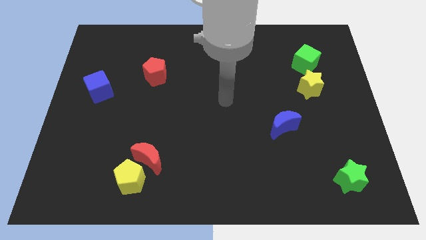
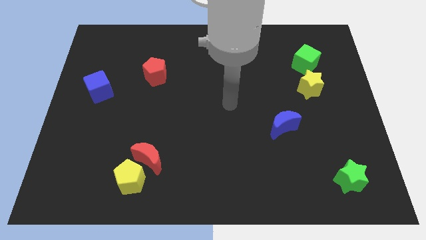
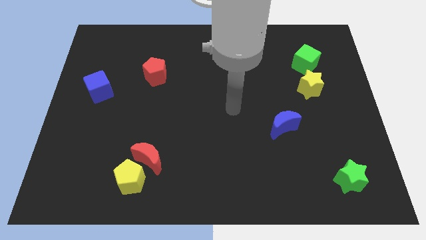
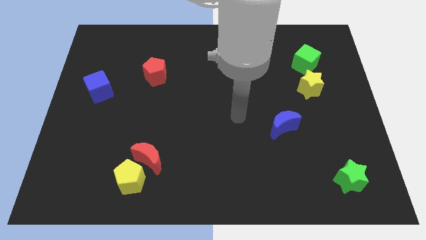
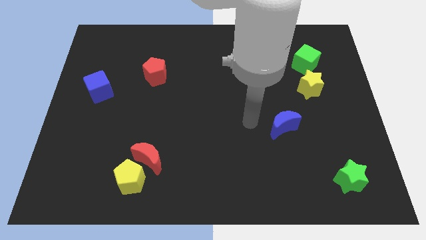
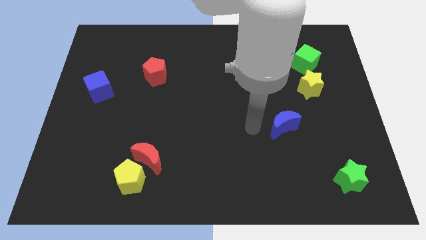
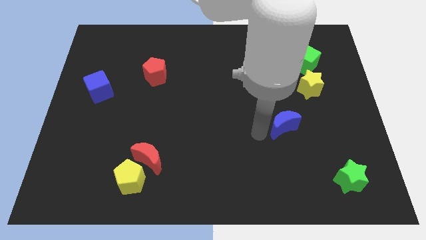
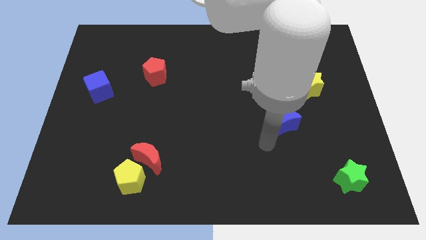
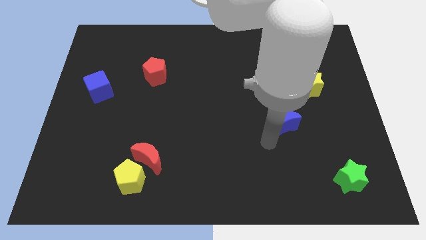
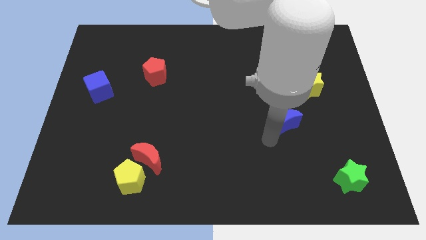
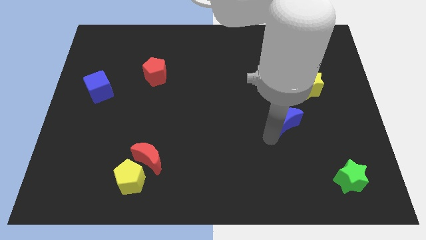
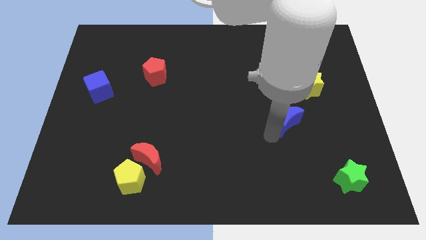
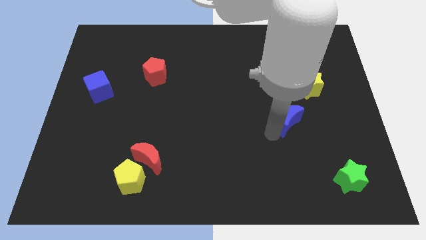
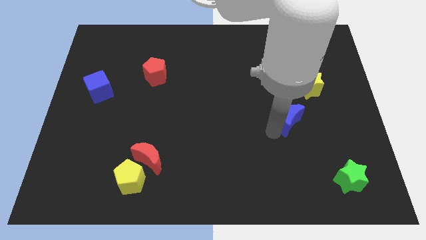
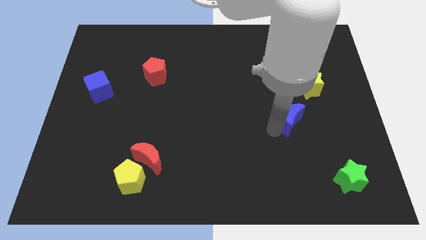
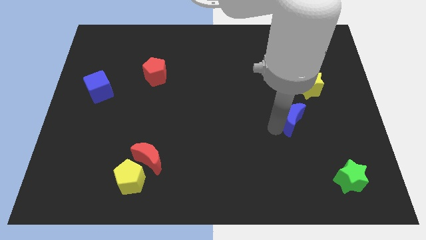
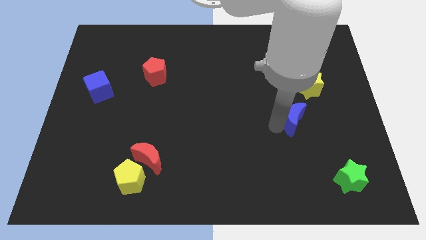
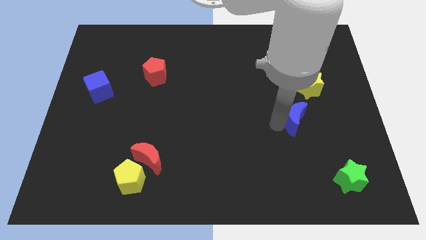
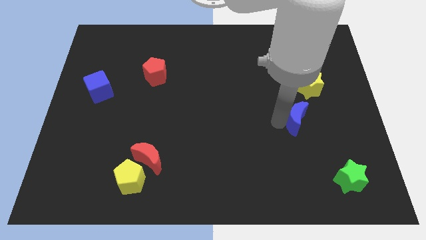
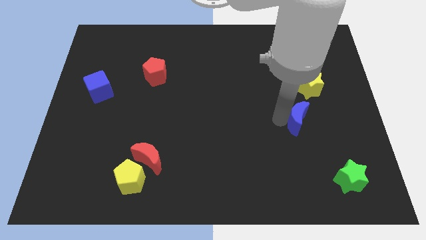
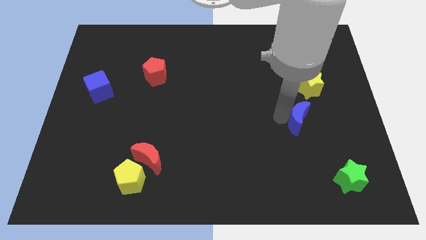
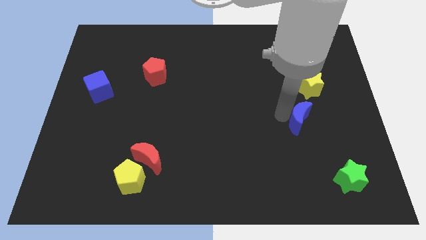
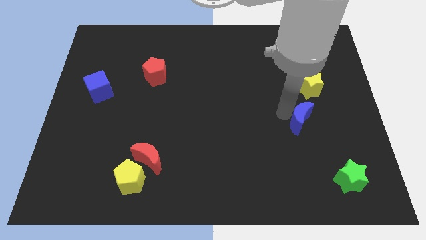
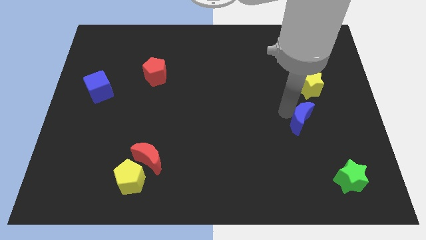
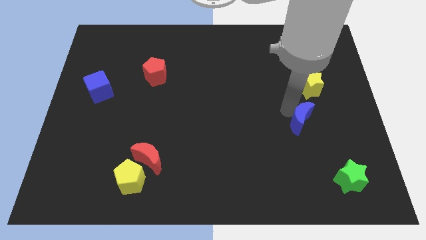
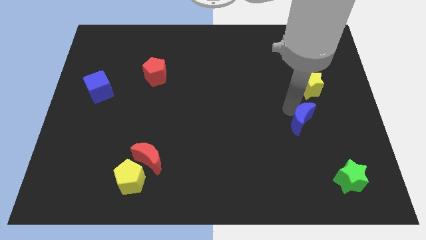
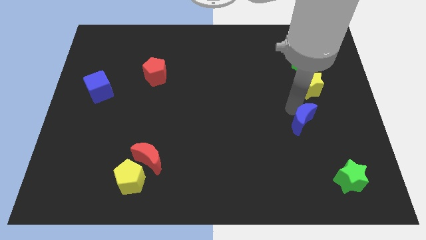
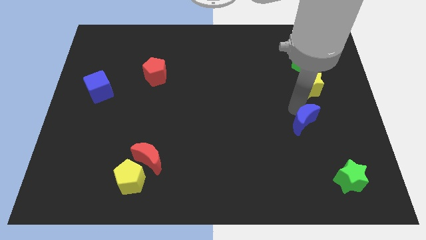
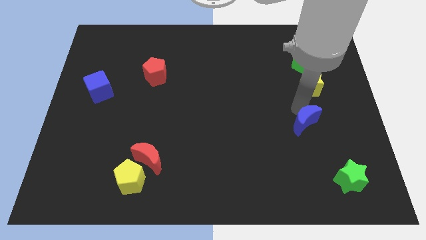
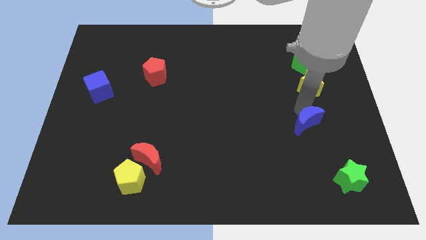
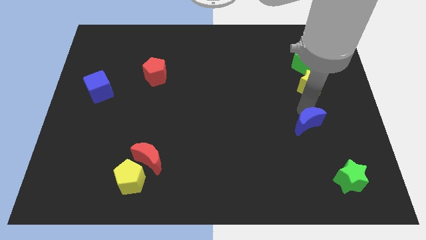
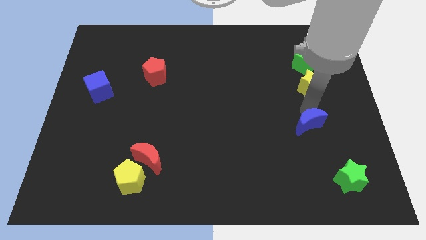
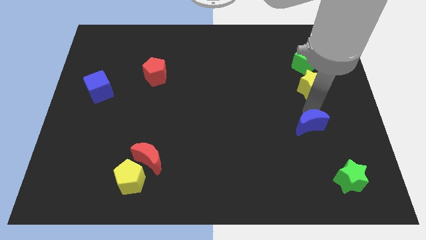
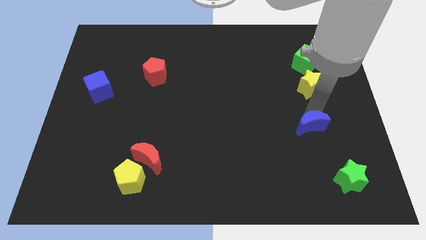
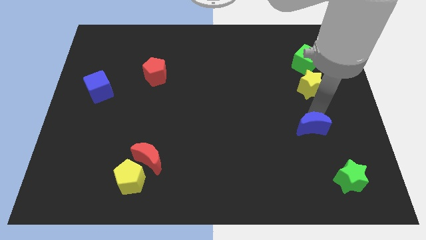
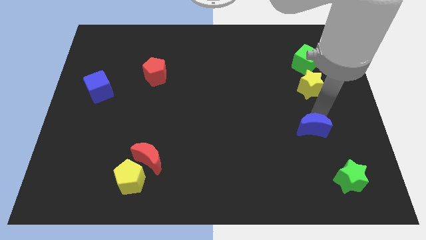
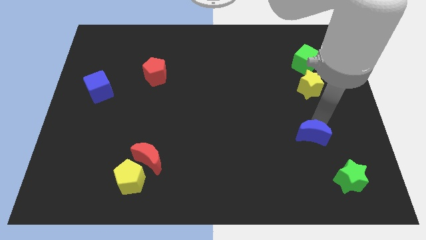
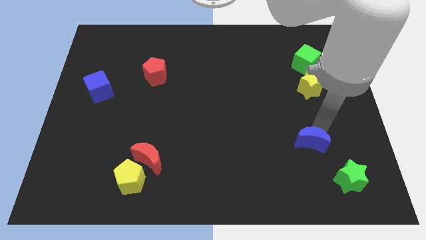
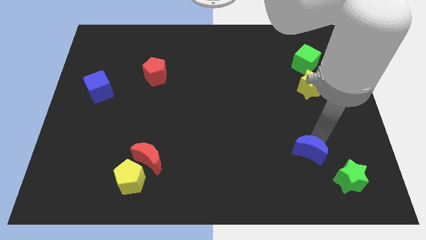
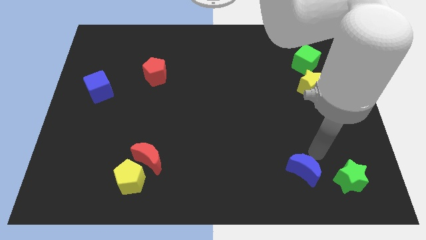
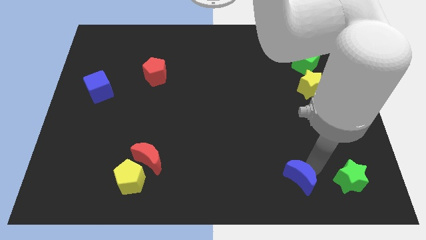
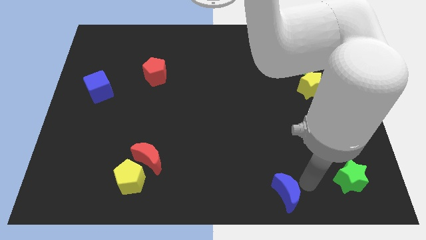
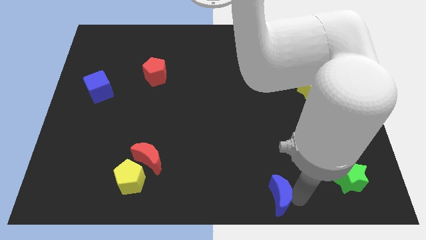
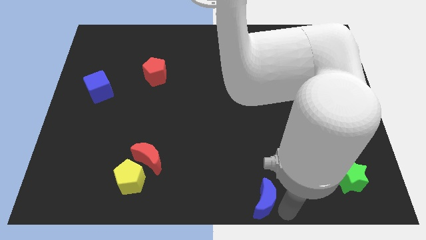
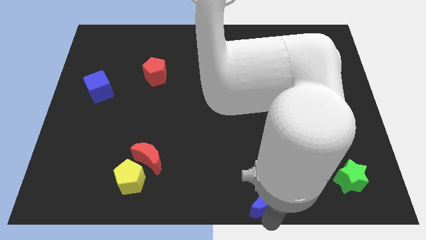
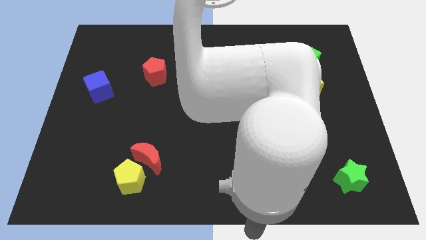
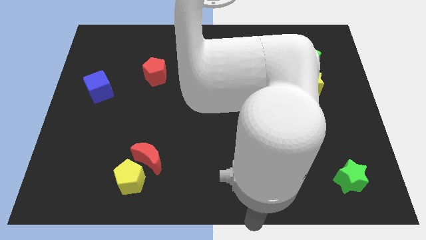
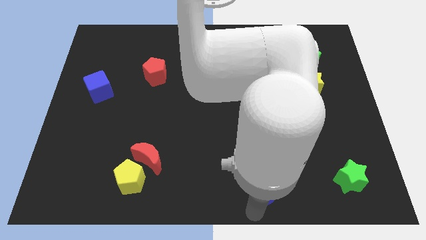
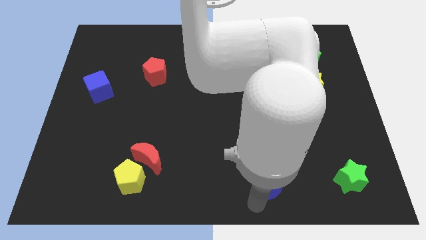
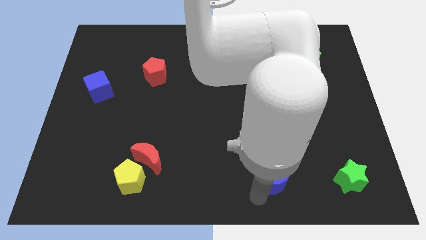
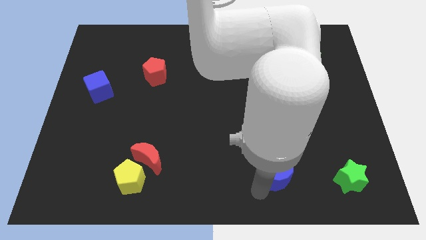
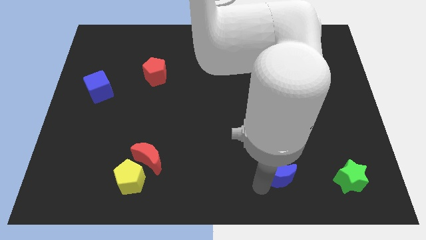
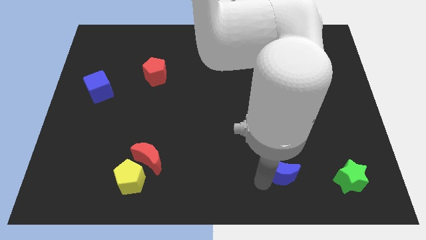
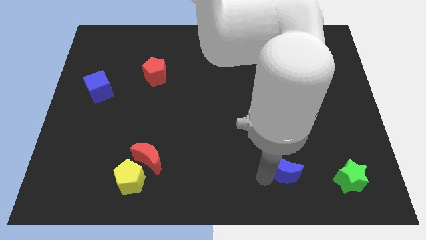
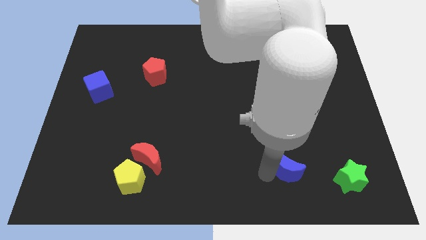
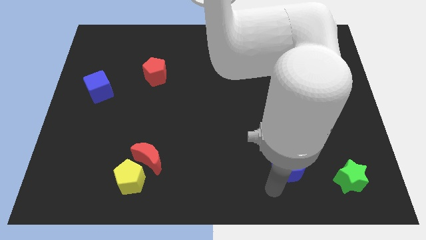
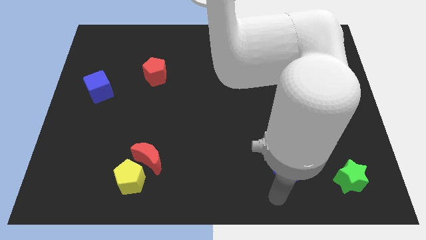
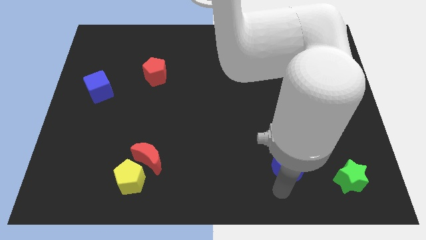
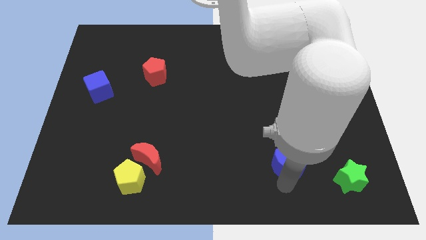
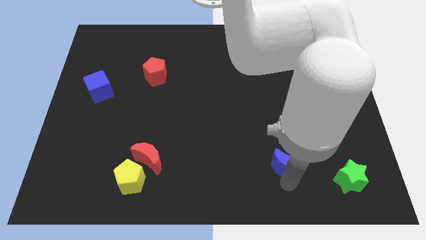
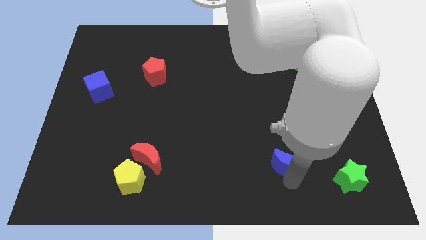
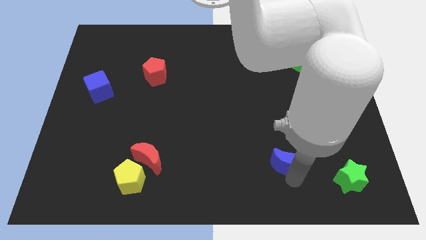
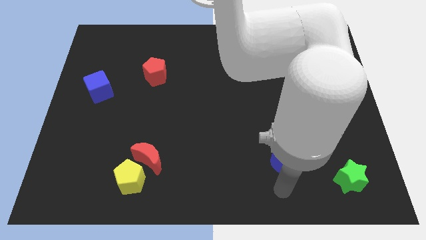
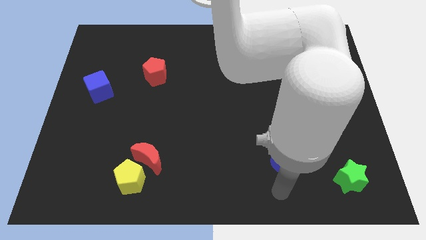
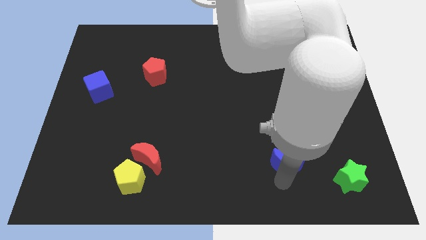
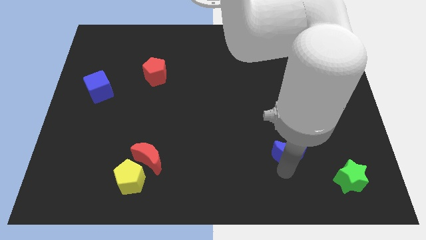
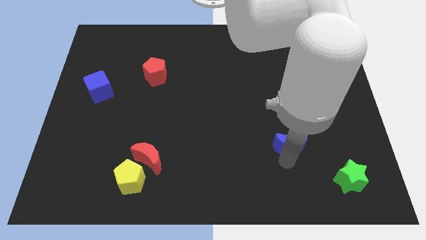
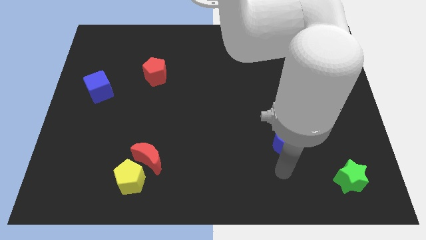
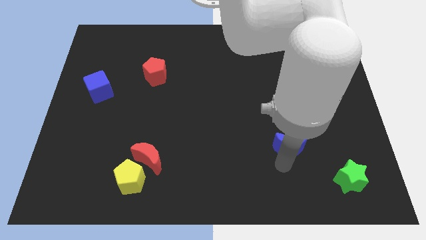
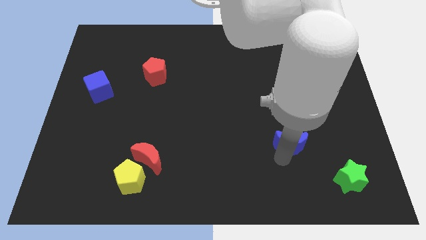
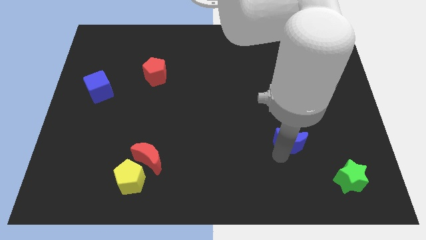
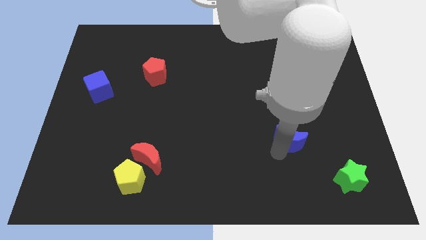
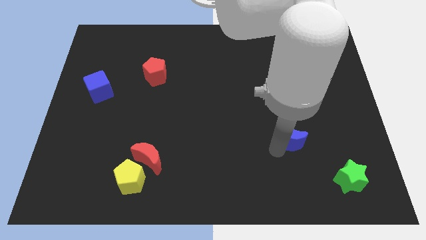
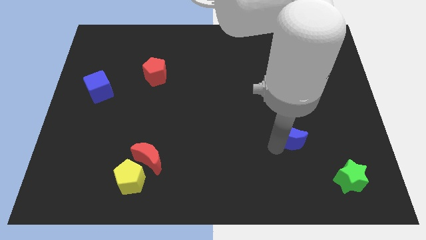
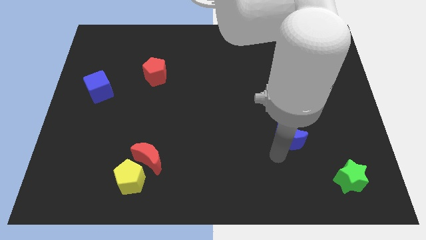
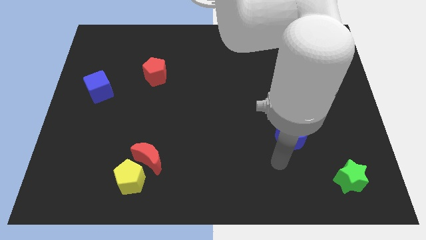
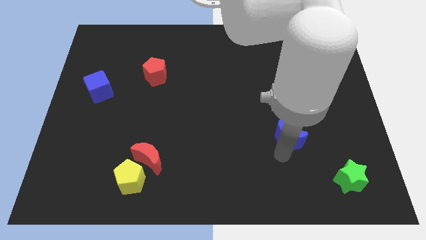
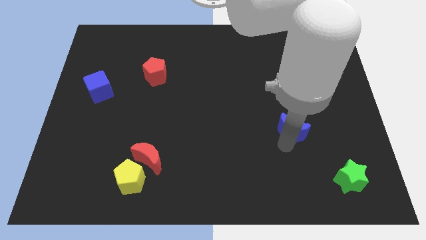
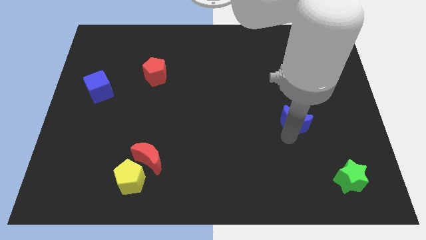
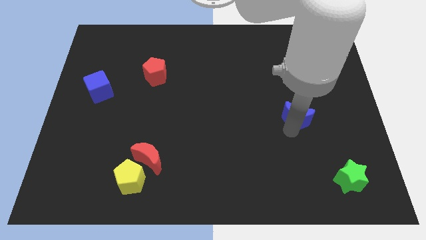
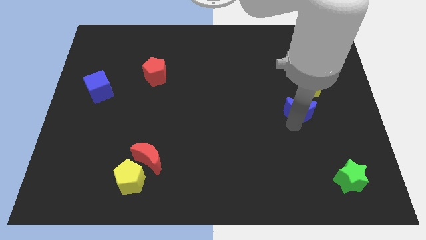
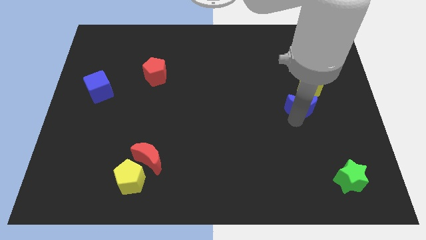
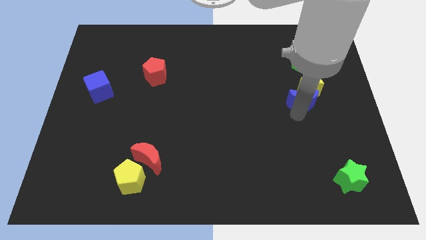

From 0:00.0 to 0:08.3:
put the blue moon to the yellow star
